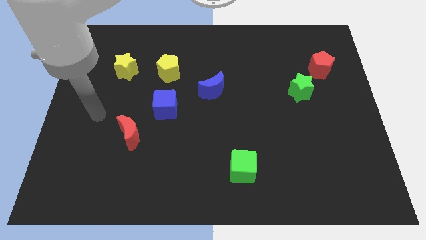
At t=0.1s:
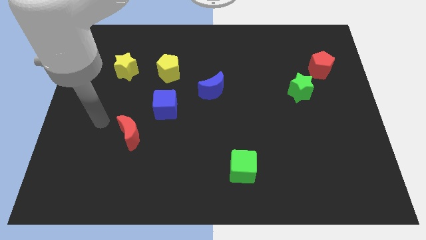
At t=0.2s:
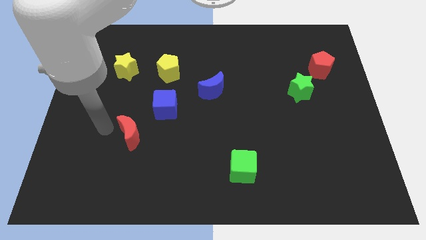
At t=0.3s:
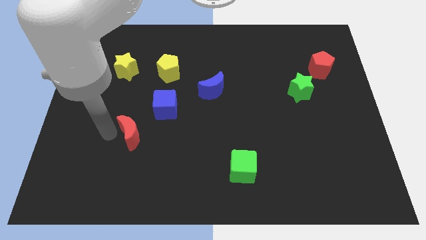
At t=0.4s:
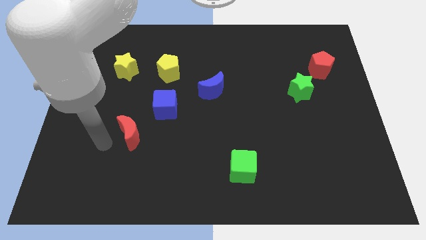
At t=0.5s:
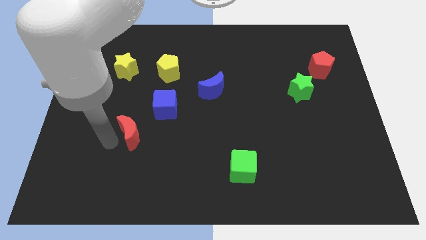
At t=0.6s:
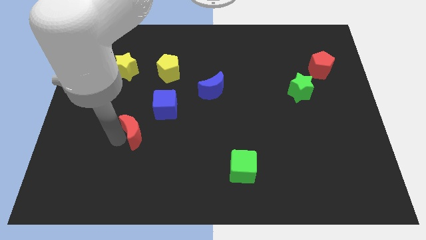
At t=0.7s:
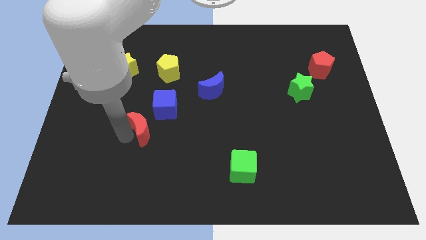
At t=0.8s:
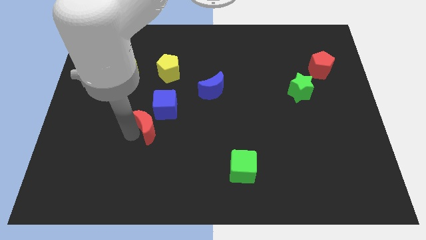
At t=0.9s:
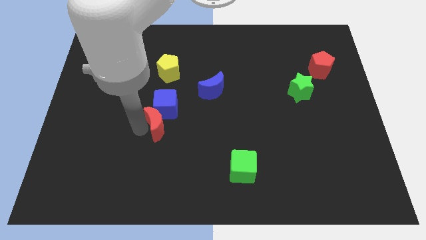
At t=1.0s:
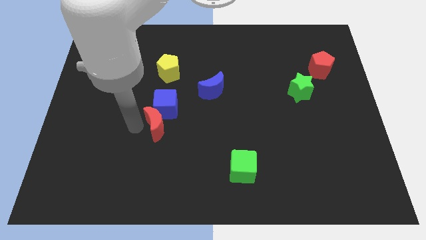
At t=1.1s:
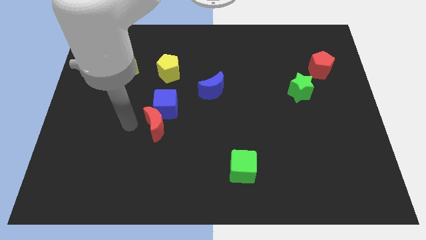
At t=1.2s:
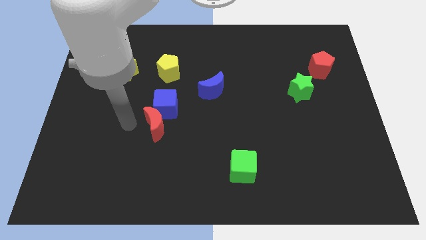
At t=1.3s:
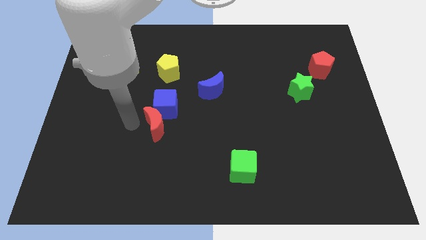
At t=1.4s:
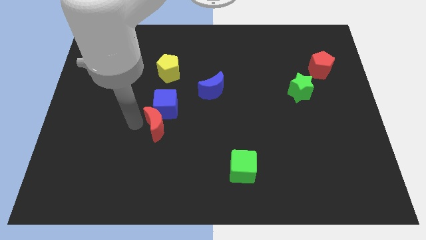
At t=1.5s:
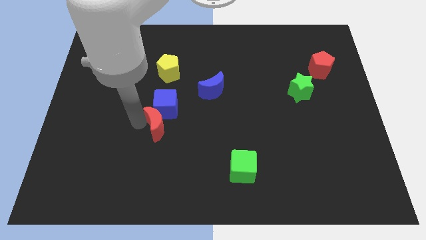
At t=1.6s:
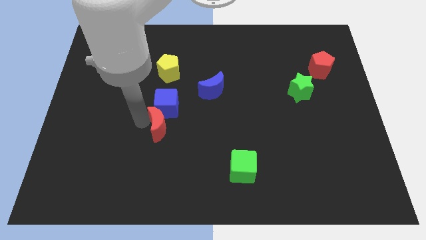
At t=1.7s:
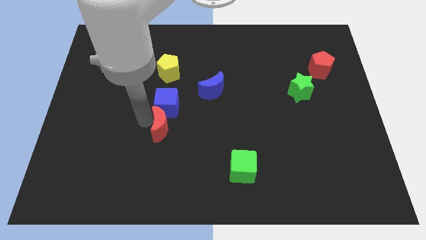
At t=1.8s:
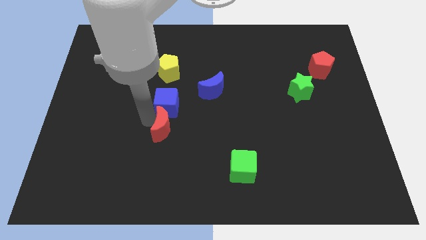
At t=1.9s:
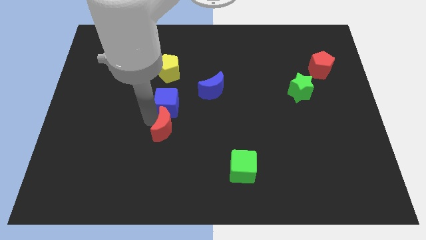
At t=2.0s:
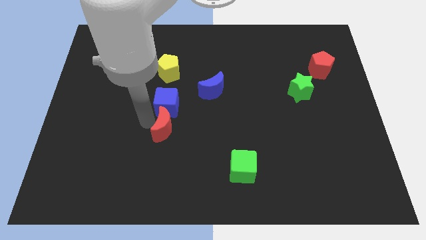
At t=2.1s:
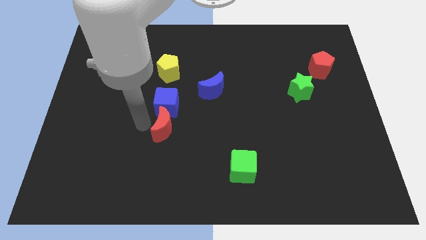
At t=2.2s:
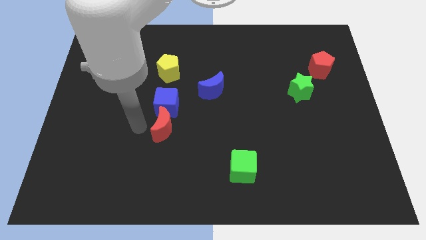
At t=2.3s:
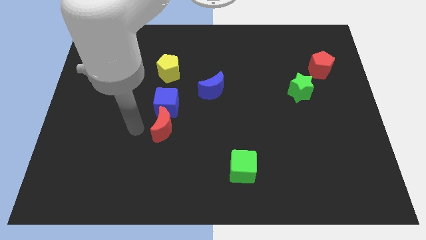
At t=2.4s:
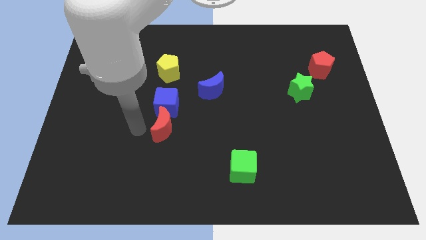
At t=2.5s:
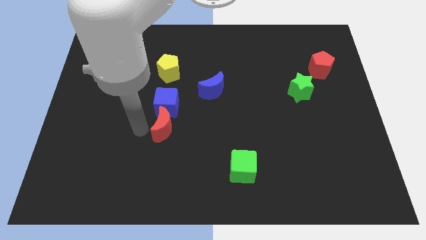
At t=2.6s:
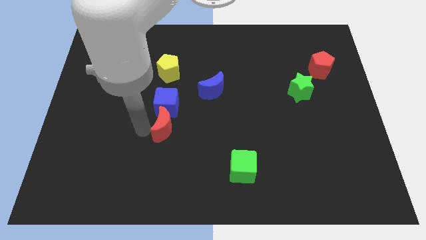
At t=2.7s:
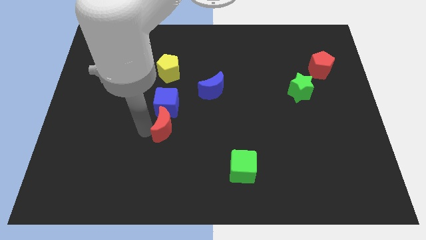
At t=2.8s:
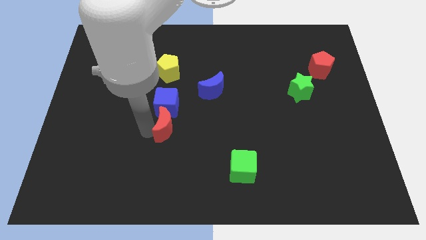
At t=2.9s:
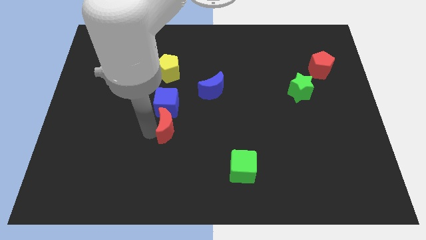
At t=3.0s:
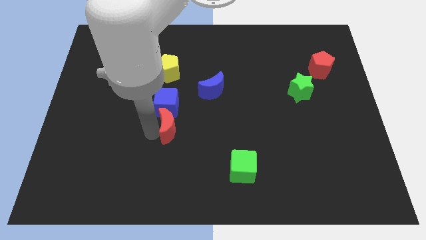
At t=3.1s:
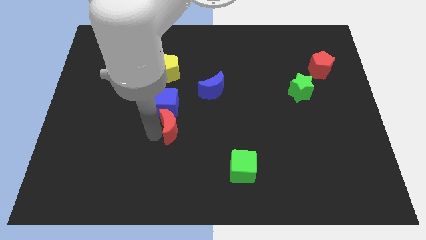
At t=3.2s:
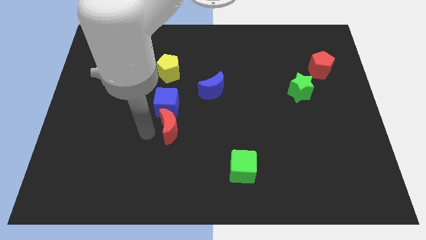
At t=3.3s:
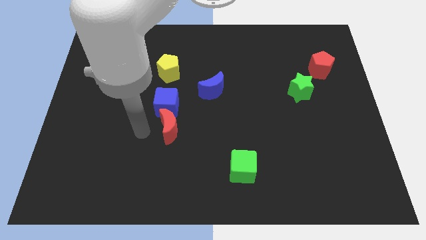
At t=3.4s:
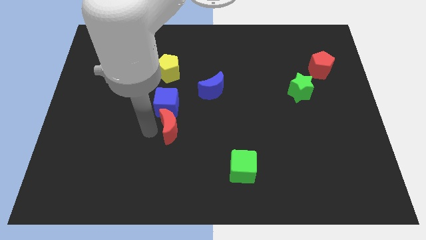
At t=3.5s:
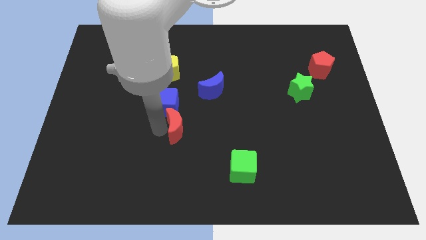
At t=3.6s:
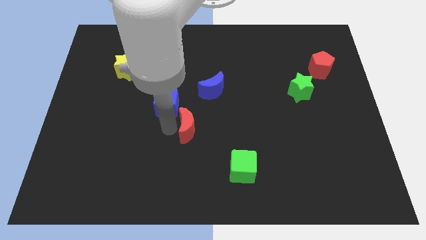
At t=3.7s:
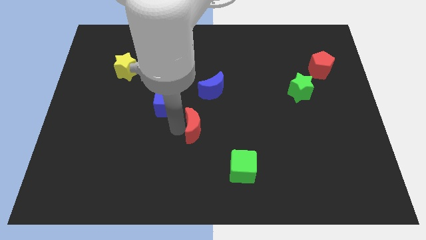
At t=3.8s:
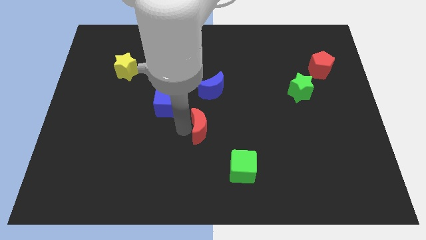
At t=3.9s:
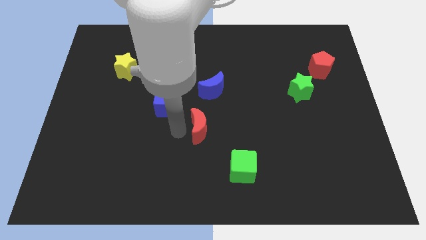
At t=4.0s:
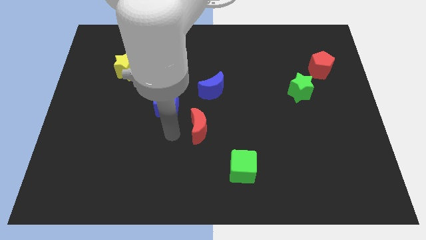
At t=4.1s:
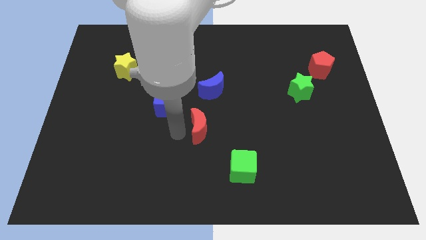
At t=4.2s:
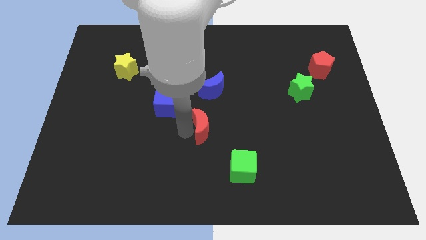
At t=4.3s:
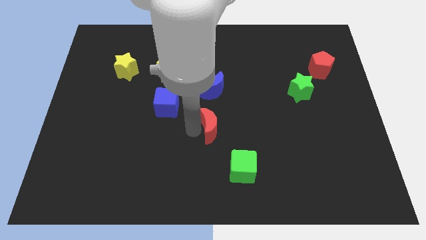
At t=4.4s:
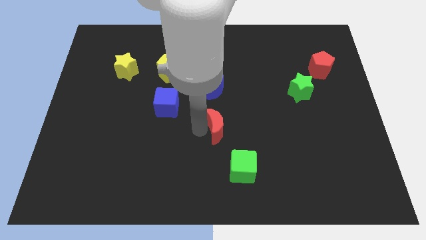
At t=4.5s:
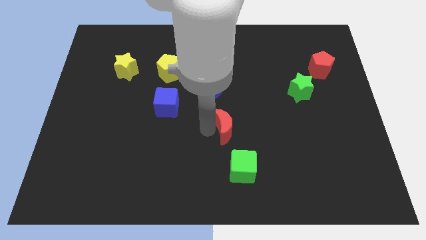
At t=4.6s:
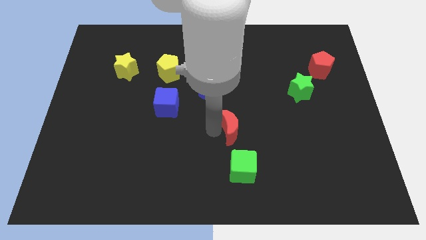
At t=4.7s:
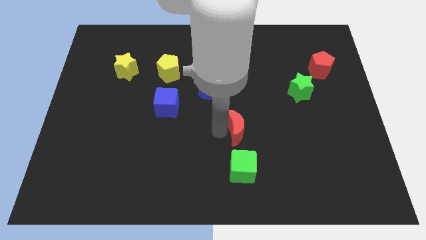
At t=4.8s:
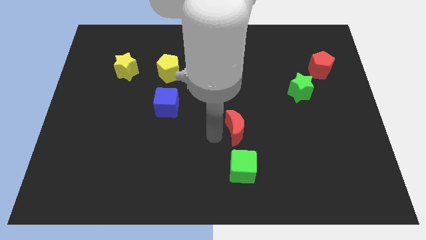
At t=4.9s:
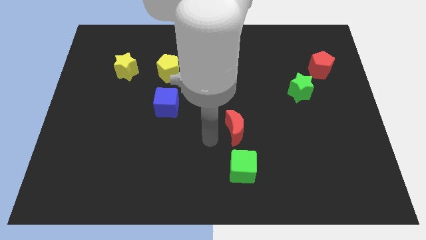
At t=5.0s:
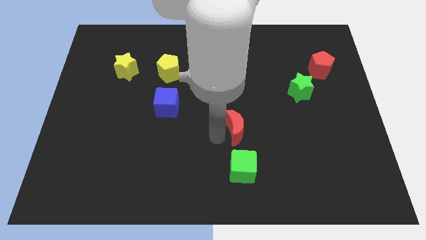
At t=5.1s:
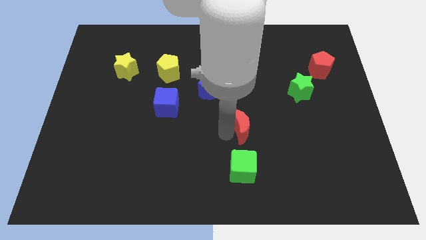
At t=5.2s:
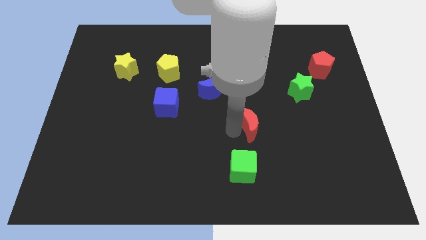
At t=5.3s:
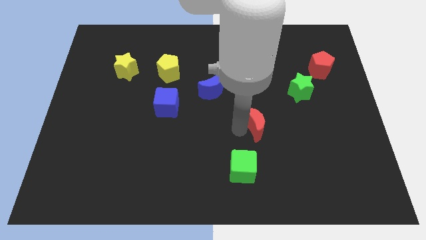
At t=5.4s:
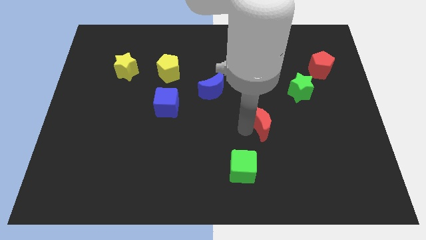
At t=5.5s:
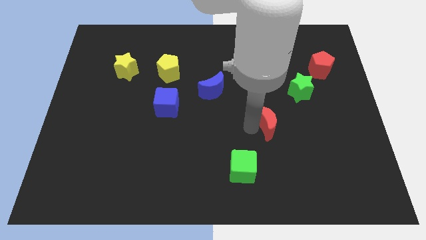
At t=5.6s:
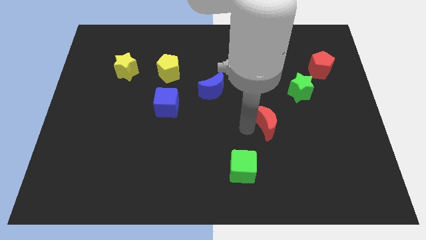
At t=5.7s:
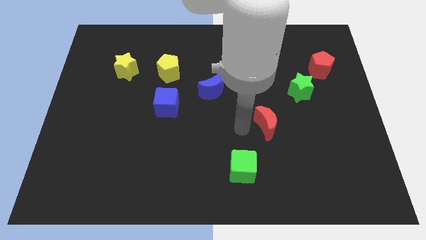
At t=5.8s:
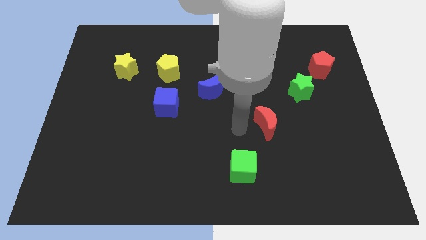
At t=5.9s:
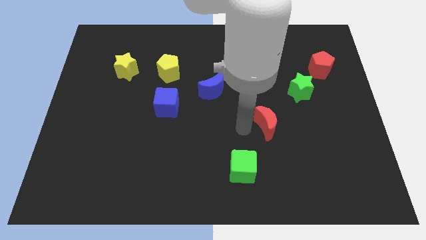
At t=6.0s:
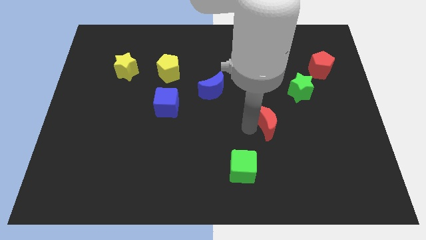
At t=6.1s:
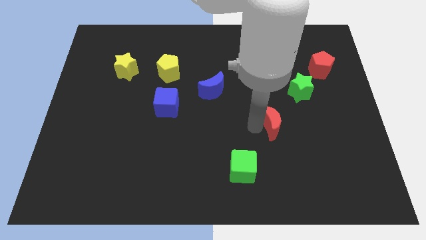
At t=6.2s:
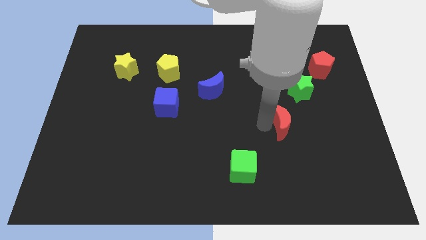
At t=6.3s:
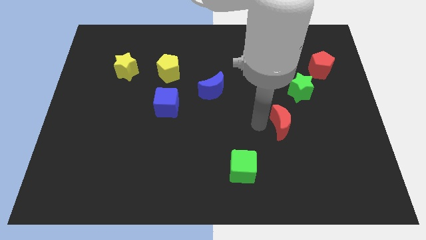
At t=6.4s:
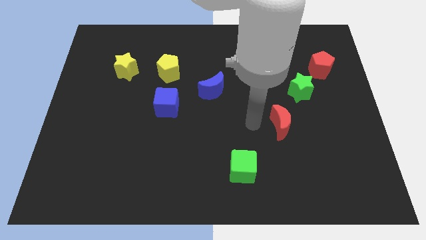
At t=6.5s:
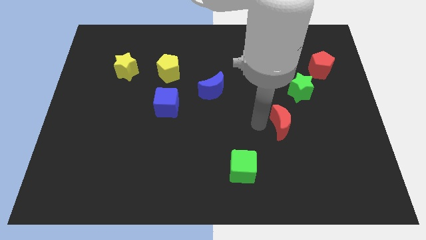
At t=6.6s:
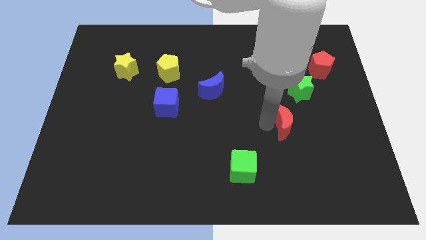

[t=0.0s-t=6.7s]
push the red moon to the bottom side of the green star
